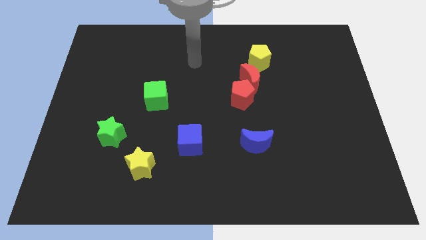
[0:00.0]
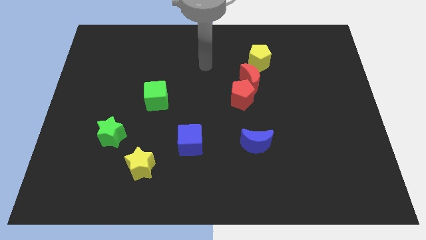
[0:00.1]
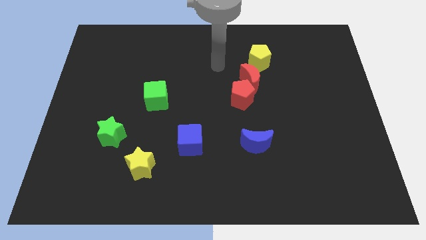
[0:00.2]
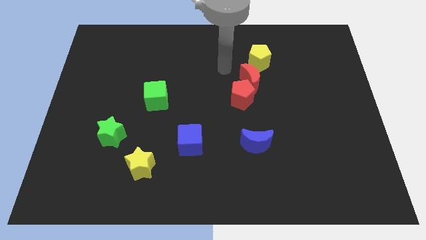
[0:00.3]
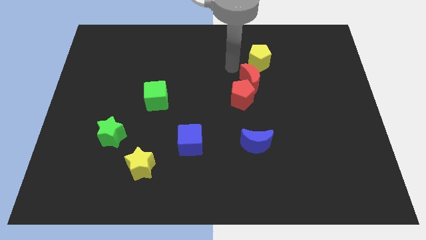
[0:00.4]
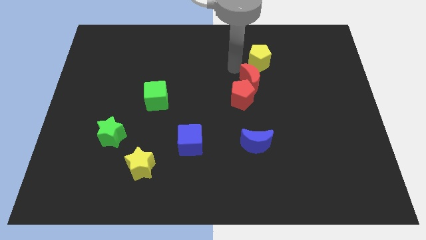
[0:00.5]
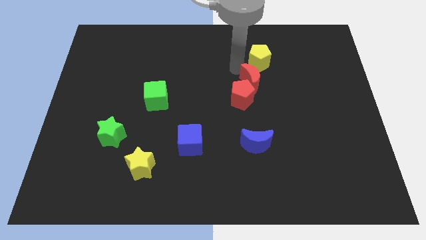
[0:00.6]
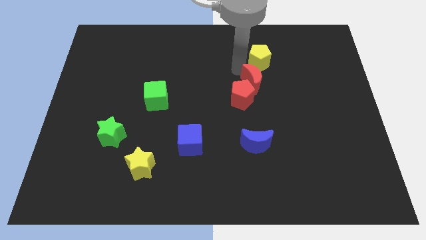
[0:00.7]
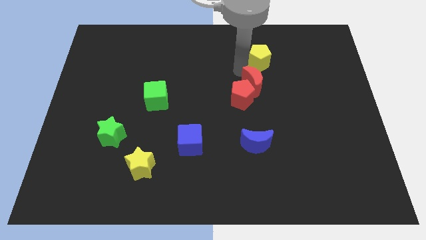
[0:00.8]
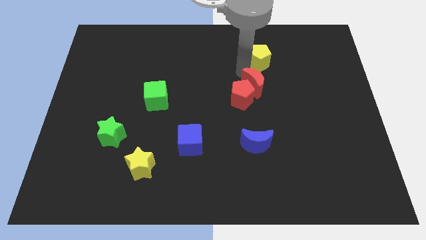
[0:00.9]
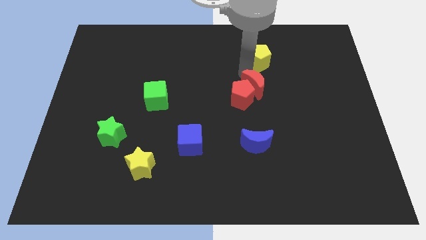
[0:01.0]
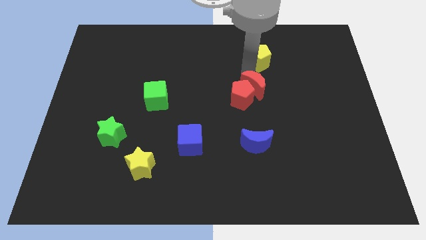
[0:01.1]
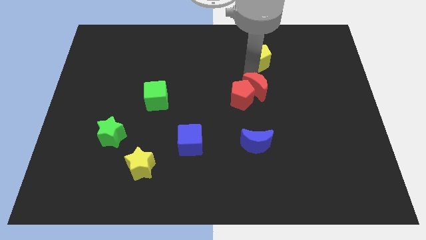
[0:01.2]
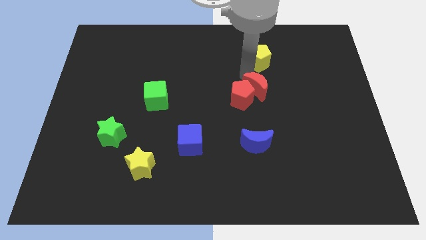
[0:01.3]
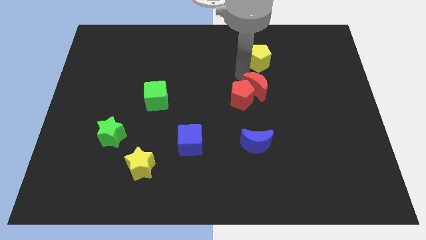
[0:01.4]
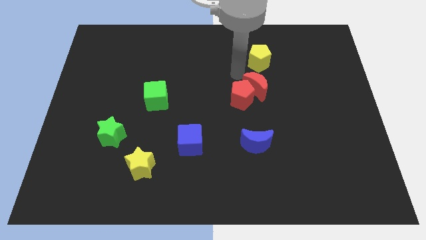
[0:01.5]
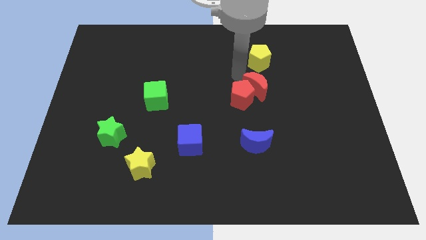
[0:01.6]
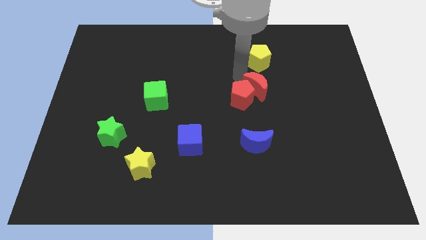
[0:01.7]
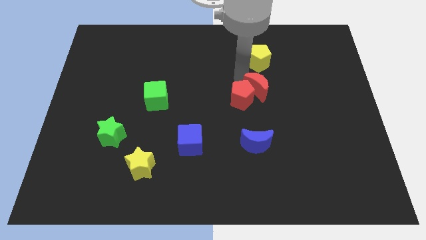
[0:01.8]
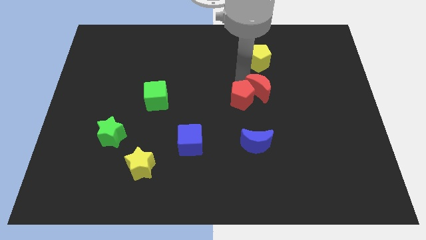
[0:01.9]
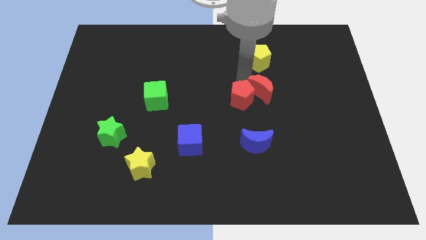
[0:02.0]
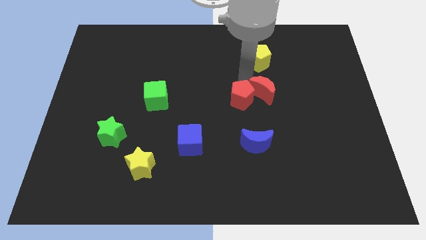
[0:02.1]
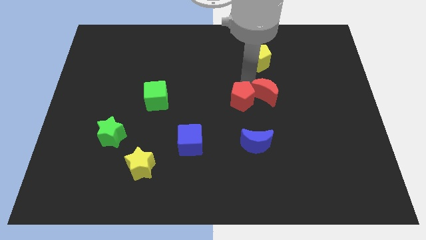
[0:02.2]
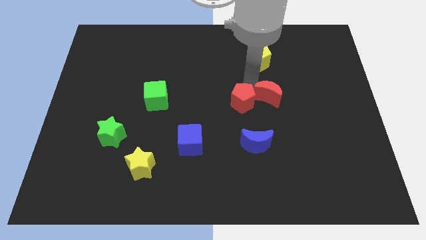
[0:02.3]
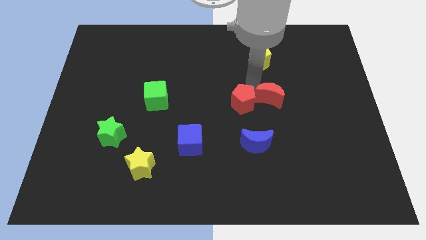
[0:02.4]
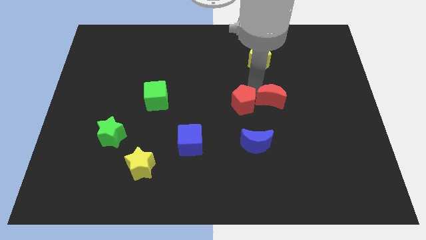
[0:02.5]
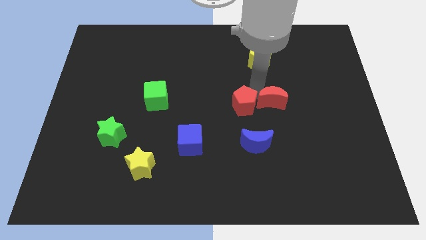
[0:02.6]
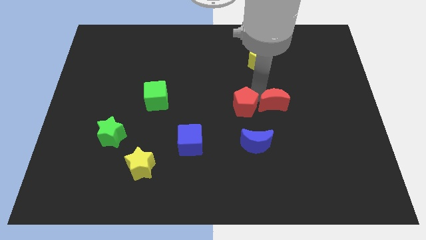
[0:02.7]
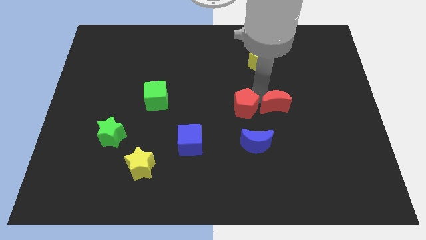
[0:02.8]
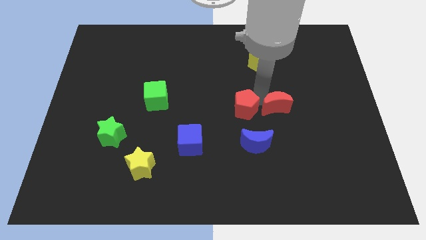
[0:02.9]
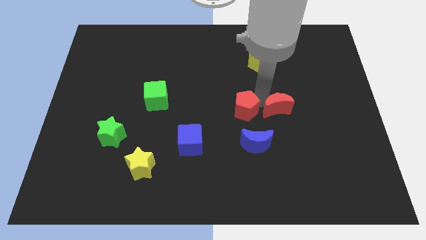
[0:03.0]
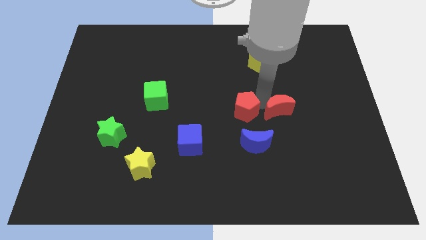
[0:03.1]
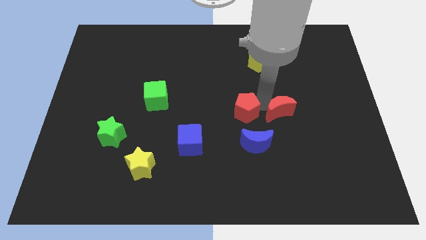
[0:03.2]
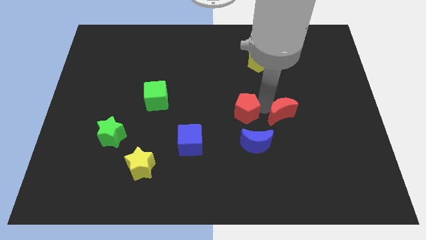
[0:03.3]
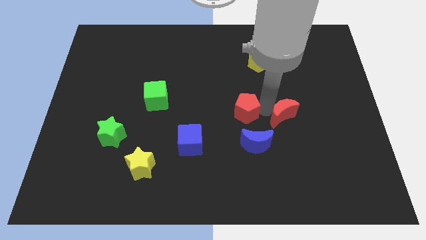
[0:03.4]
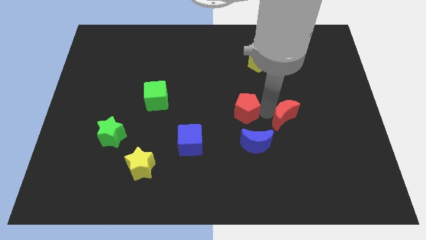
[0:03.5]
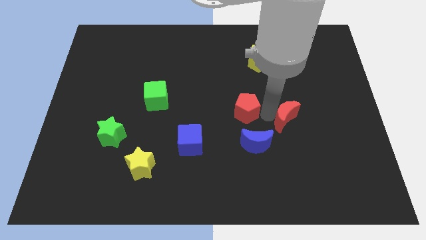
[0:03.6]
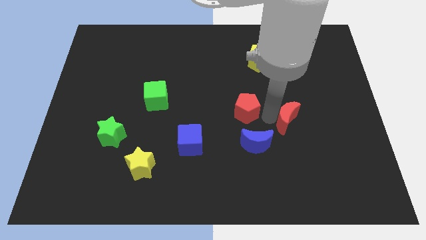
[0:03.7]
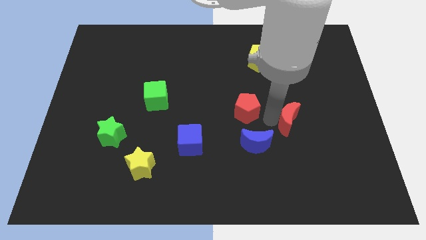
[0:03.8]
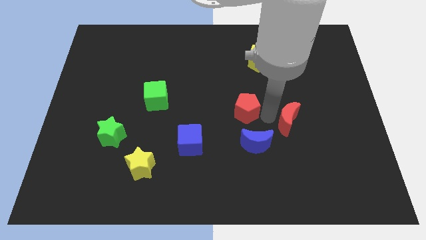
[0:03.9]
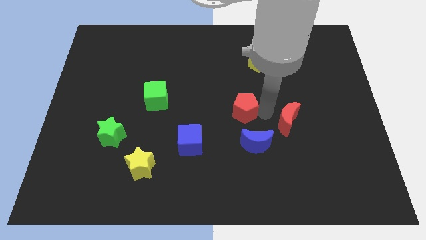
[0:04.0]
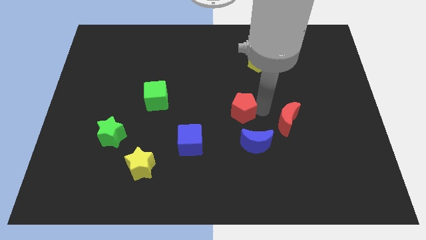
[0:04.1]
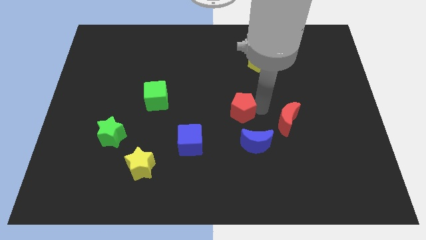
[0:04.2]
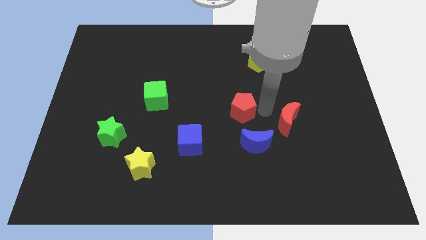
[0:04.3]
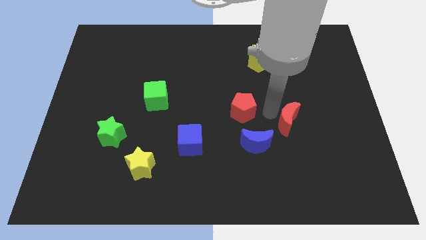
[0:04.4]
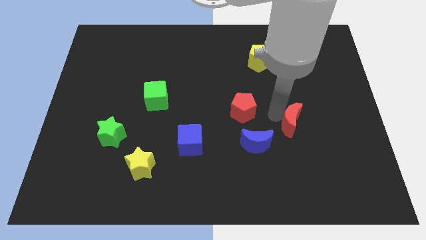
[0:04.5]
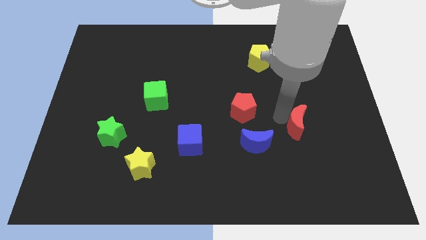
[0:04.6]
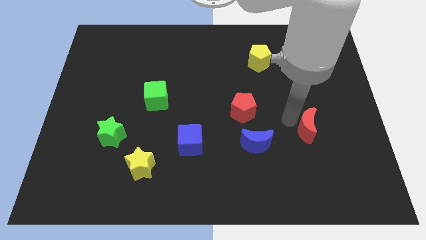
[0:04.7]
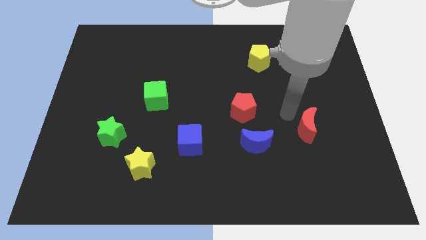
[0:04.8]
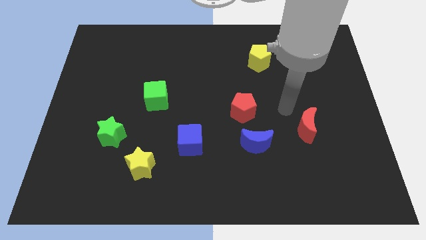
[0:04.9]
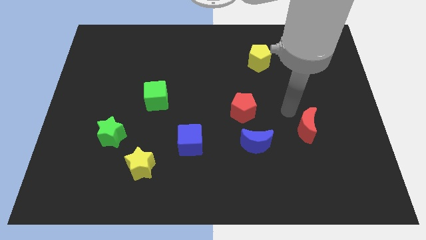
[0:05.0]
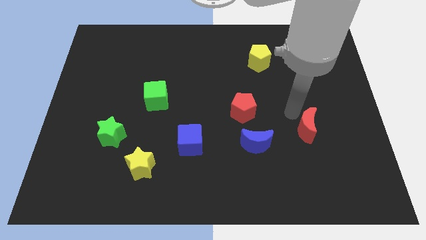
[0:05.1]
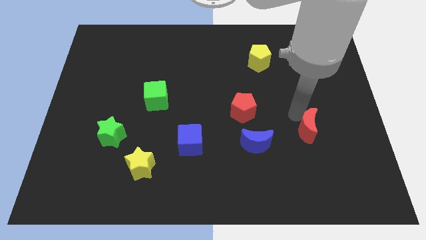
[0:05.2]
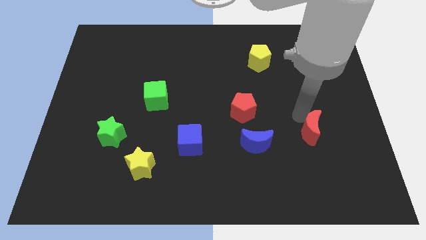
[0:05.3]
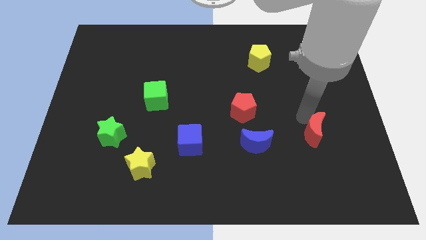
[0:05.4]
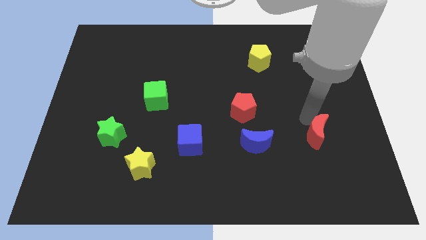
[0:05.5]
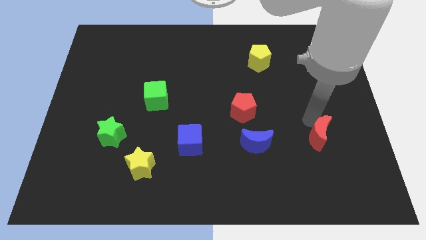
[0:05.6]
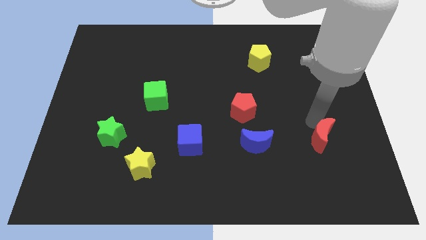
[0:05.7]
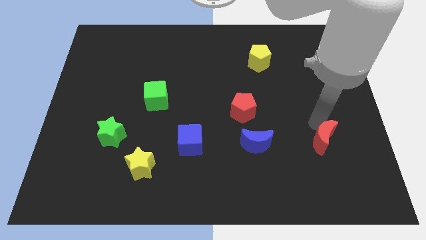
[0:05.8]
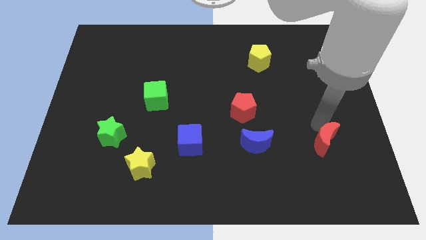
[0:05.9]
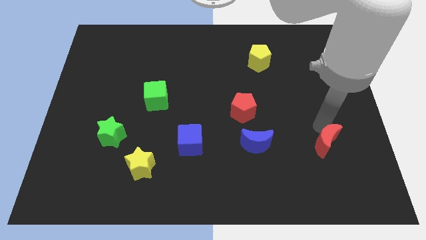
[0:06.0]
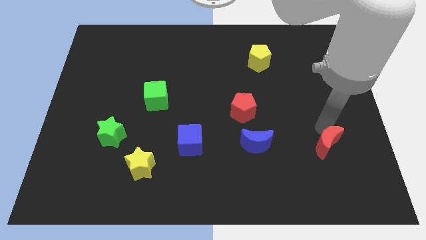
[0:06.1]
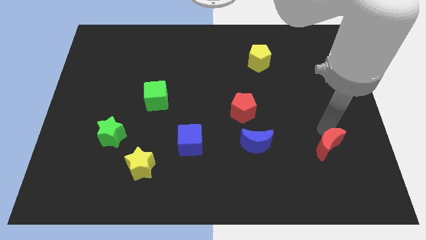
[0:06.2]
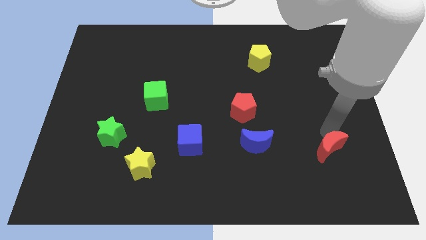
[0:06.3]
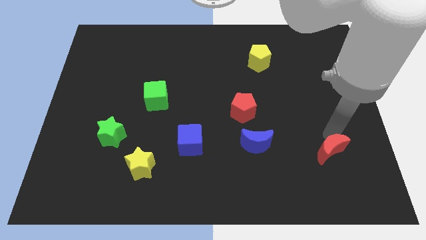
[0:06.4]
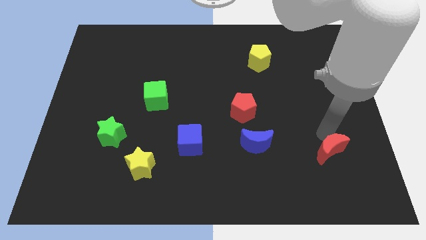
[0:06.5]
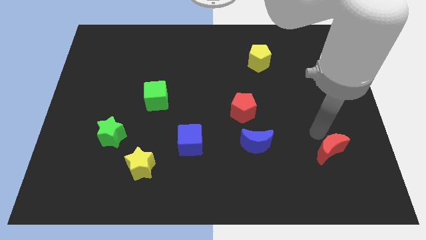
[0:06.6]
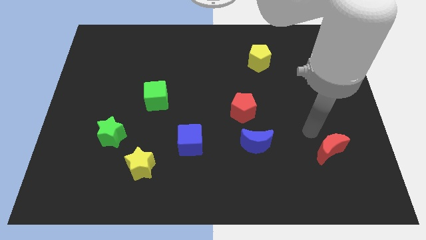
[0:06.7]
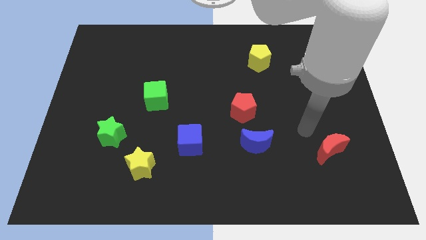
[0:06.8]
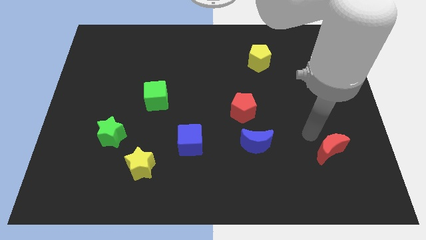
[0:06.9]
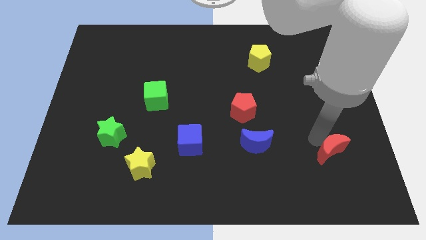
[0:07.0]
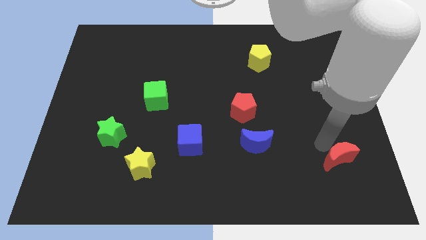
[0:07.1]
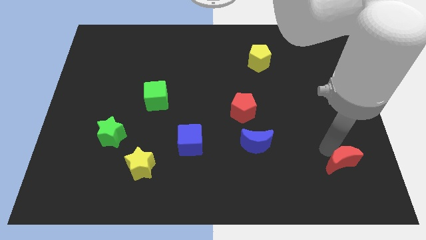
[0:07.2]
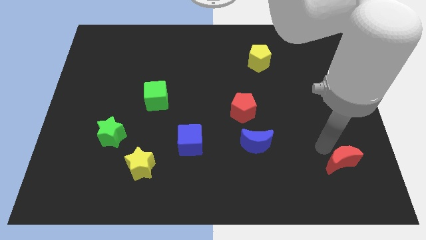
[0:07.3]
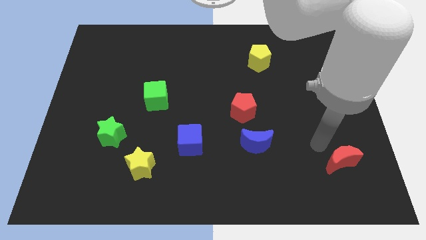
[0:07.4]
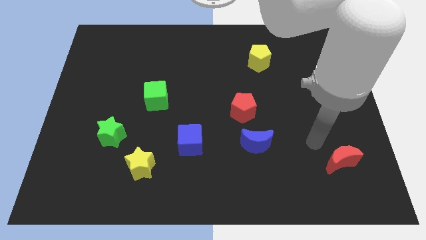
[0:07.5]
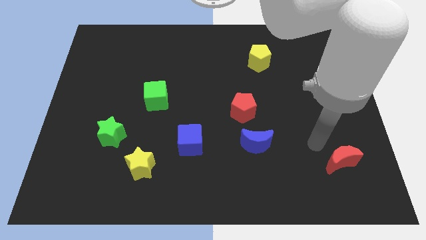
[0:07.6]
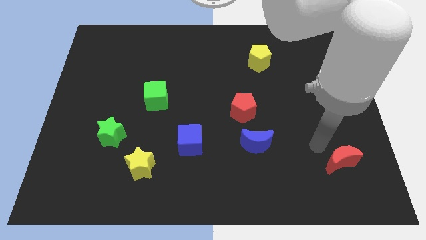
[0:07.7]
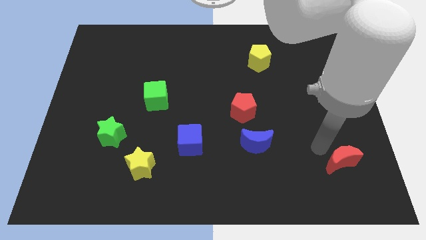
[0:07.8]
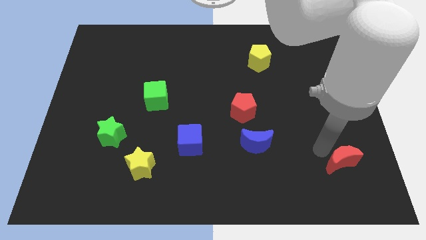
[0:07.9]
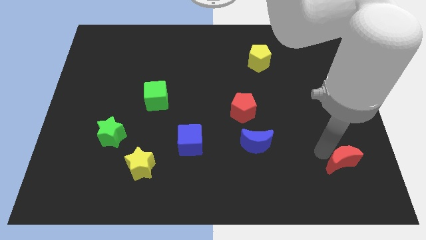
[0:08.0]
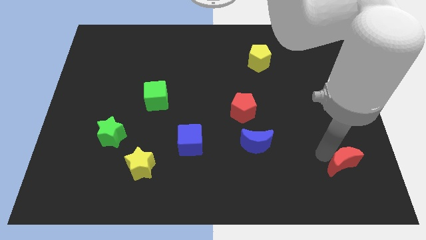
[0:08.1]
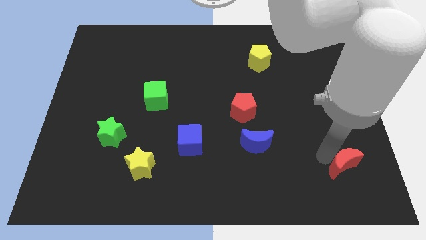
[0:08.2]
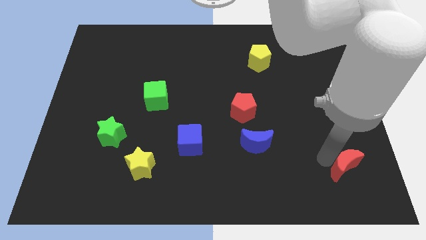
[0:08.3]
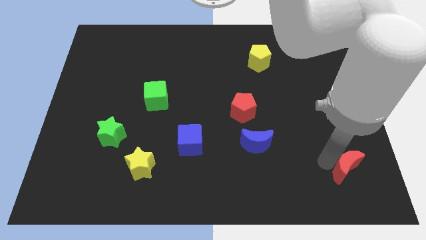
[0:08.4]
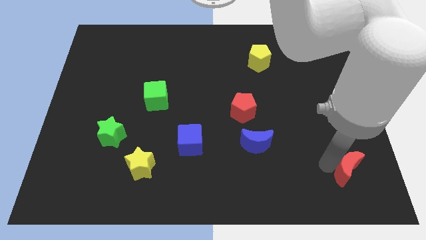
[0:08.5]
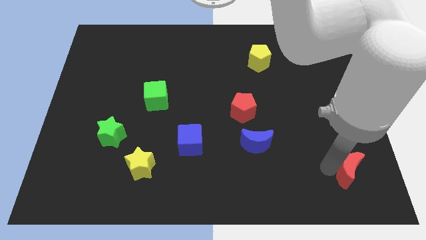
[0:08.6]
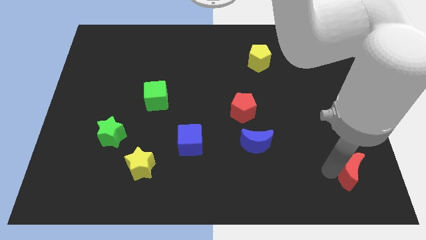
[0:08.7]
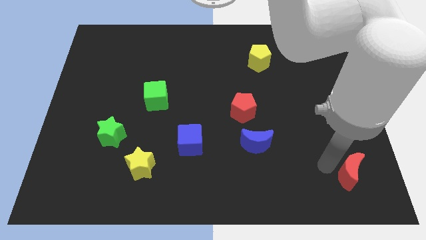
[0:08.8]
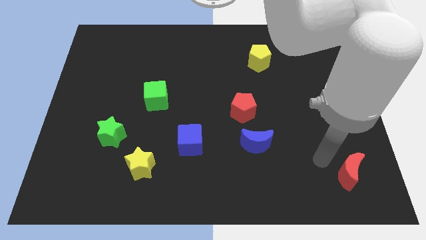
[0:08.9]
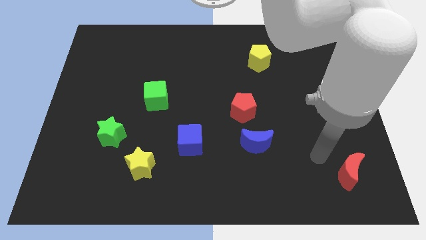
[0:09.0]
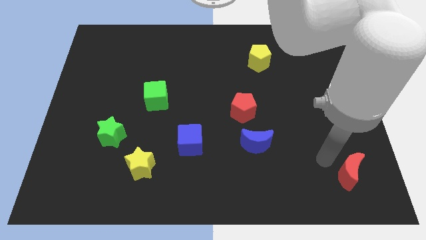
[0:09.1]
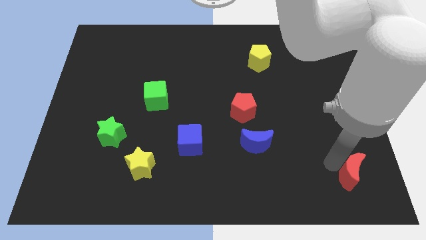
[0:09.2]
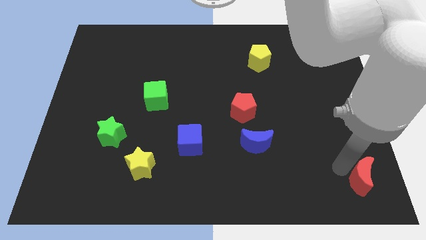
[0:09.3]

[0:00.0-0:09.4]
move the red moon to the bottom right corner
